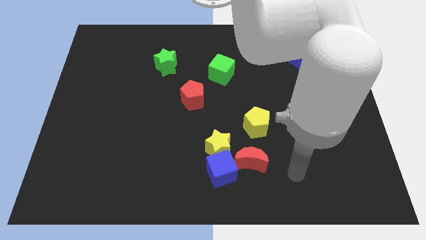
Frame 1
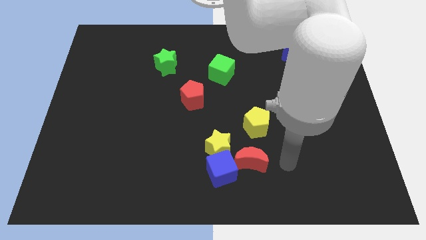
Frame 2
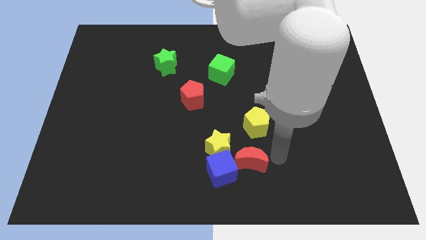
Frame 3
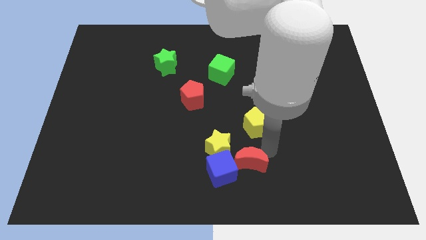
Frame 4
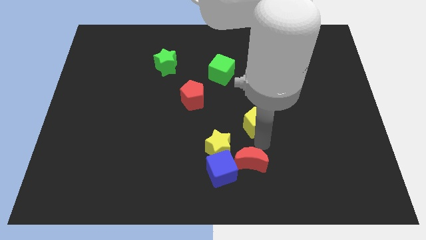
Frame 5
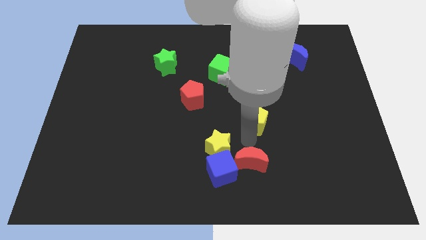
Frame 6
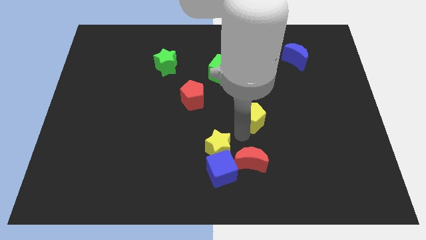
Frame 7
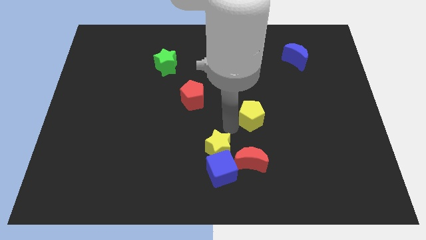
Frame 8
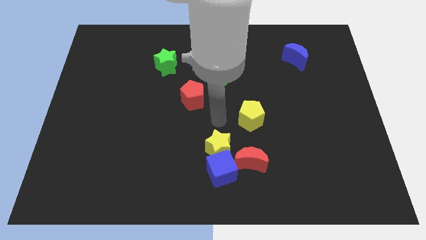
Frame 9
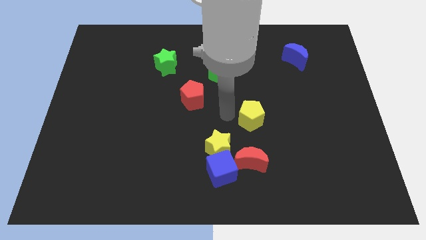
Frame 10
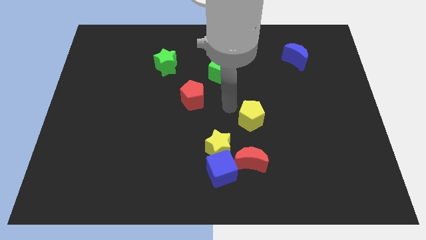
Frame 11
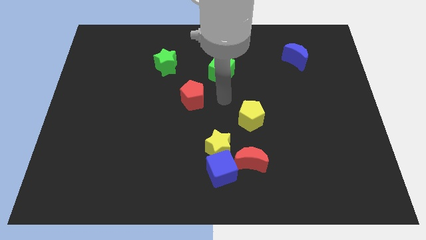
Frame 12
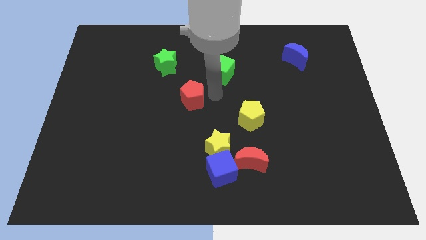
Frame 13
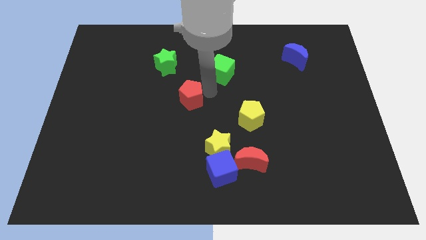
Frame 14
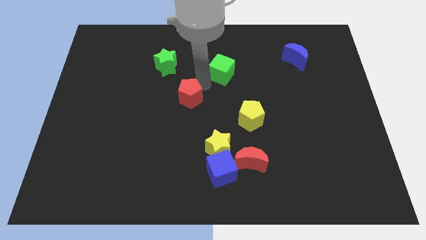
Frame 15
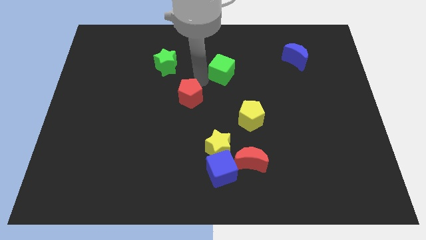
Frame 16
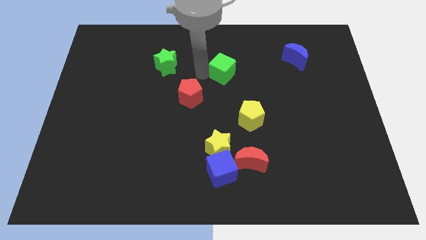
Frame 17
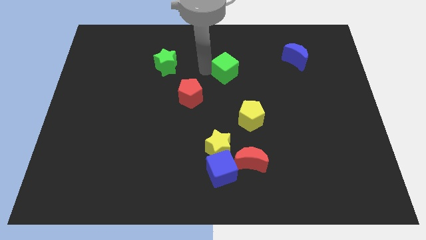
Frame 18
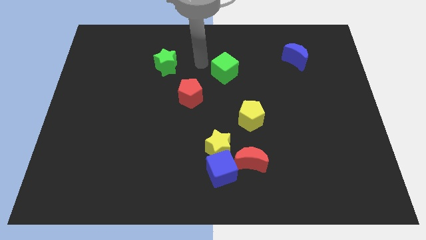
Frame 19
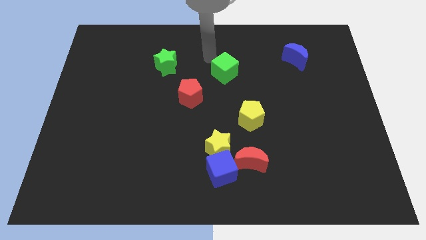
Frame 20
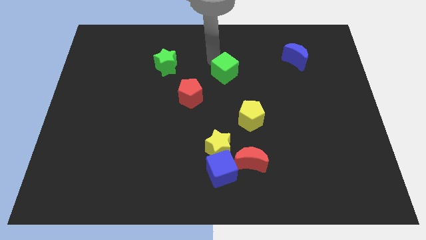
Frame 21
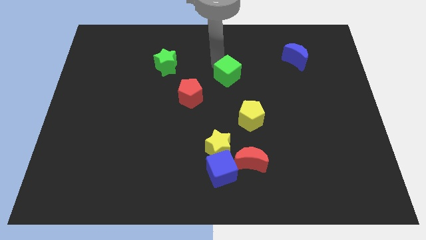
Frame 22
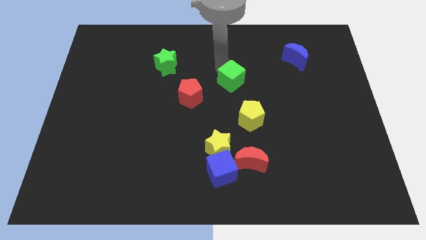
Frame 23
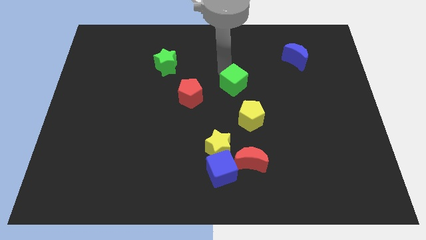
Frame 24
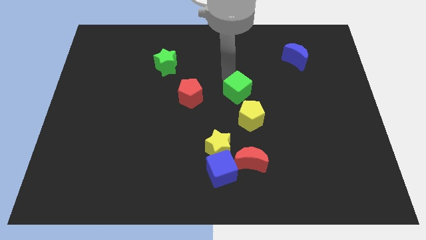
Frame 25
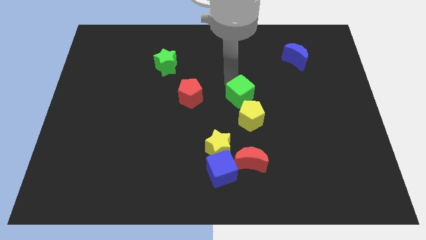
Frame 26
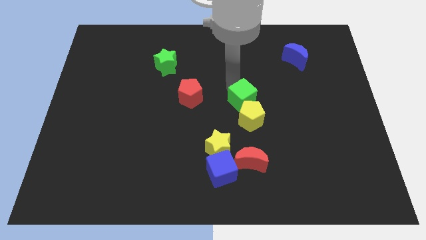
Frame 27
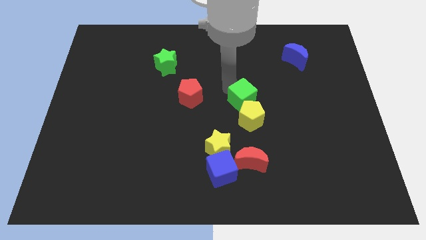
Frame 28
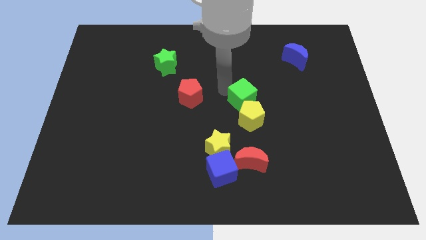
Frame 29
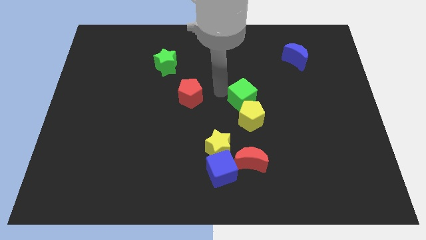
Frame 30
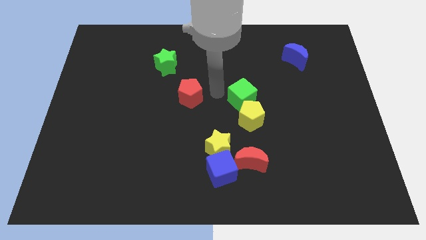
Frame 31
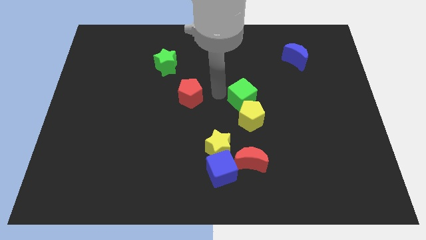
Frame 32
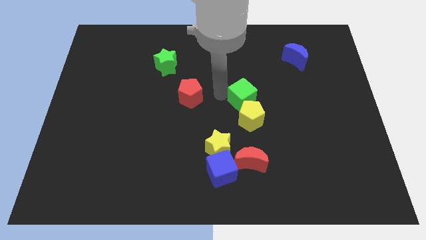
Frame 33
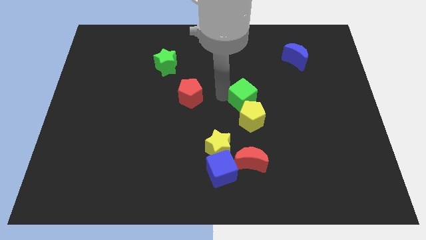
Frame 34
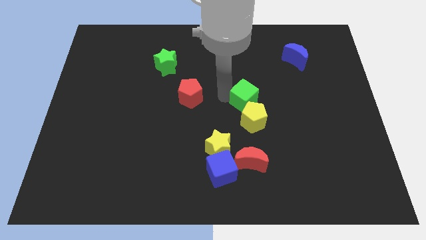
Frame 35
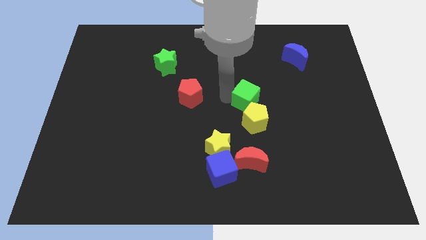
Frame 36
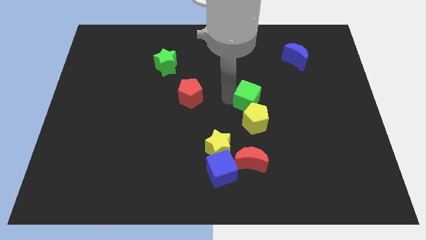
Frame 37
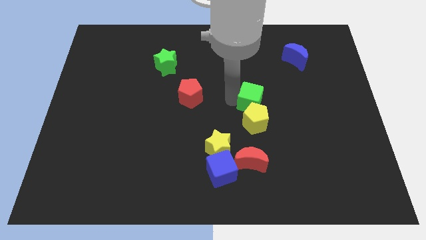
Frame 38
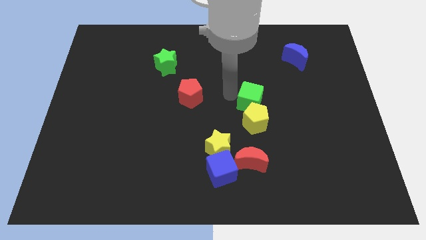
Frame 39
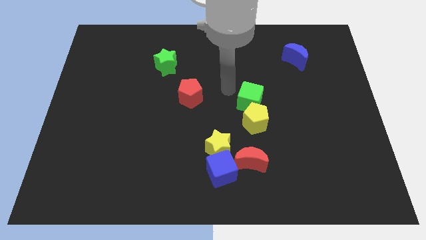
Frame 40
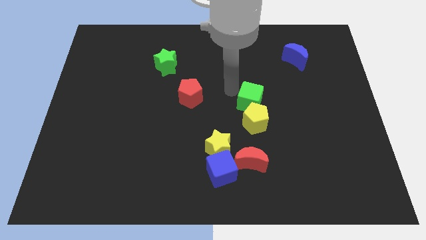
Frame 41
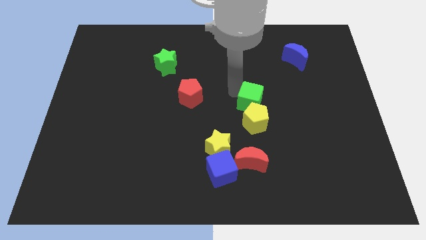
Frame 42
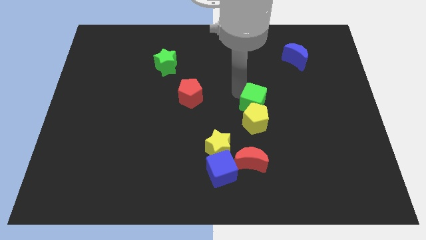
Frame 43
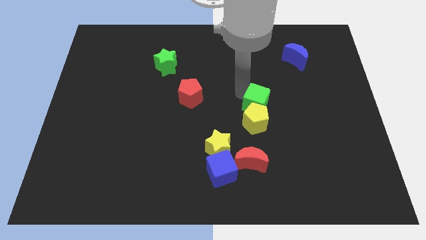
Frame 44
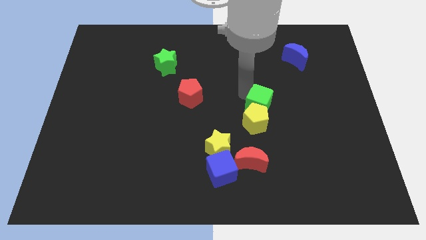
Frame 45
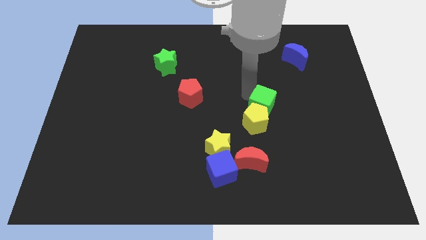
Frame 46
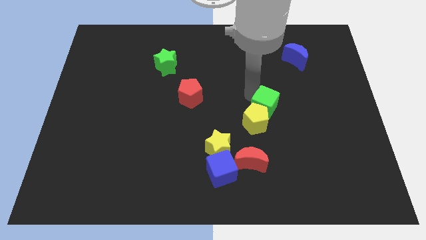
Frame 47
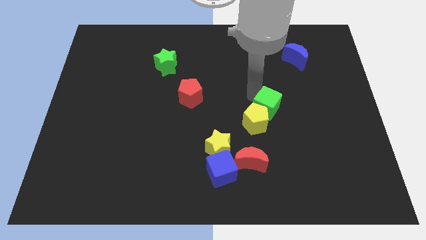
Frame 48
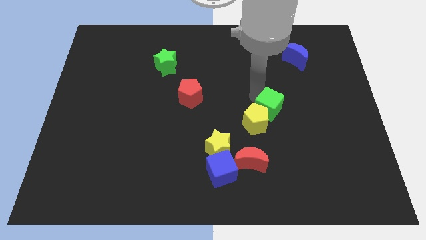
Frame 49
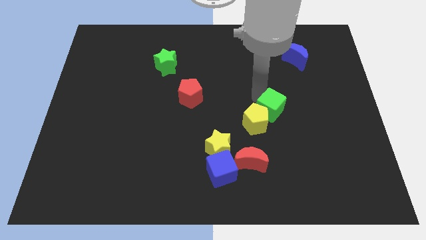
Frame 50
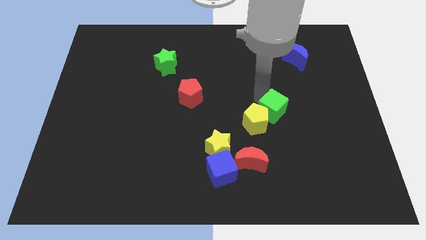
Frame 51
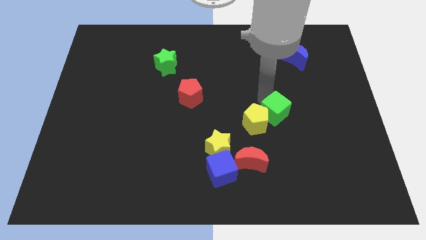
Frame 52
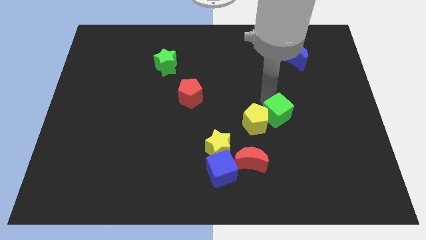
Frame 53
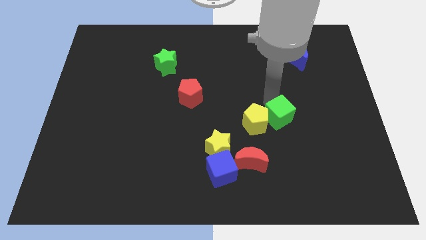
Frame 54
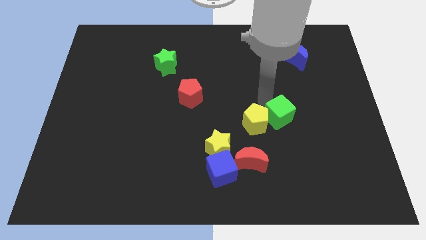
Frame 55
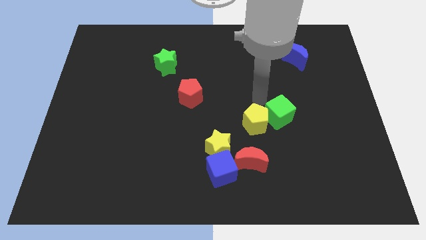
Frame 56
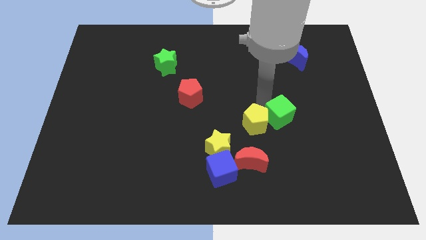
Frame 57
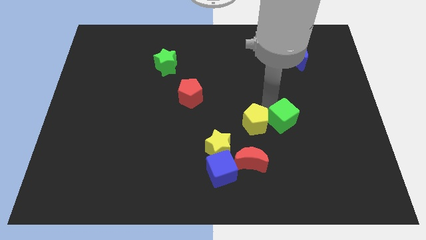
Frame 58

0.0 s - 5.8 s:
slide the green cube diagonally downwards and right

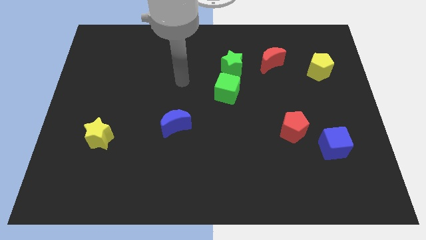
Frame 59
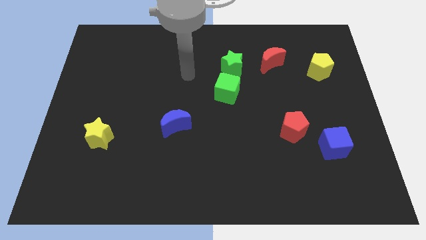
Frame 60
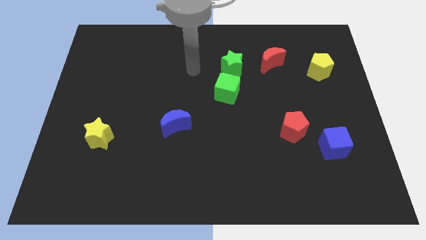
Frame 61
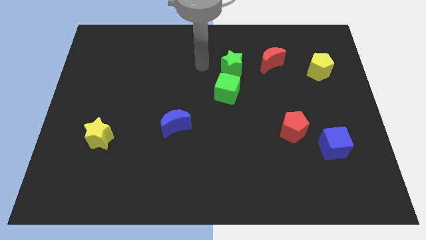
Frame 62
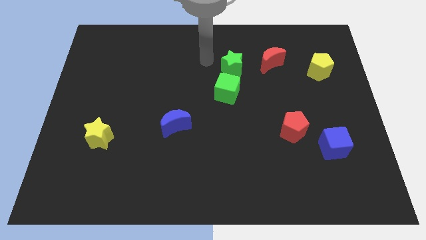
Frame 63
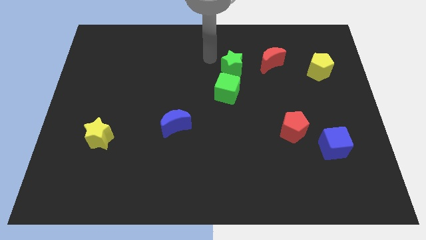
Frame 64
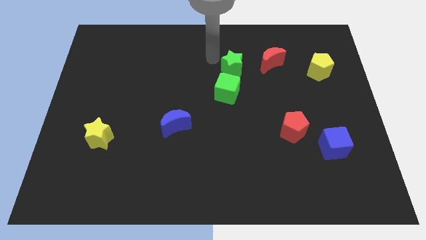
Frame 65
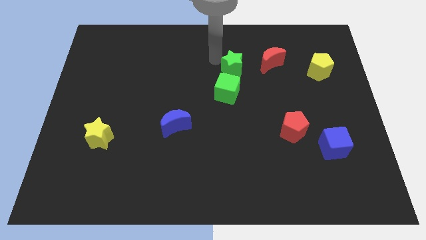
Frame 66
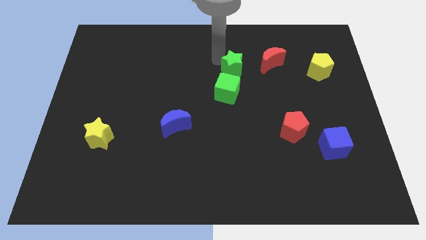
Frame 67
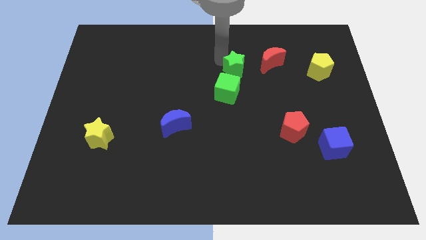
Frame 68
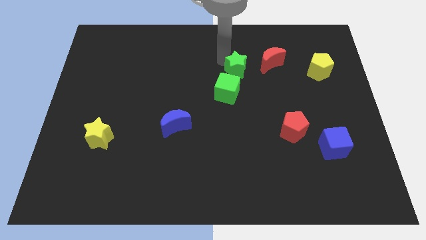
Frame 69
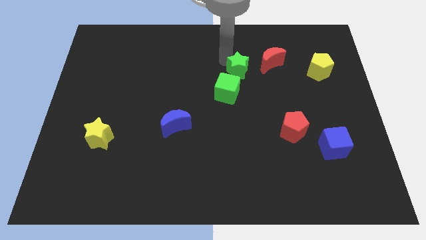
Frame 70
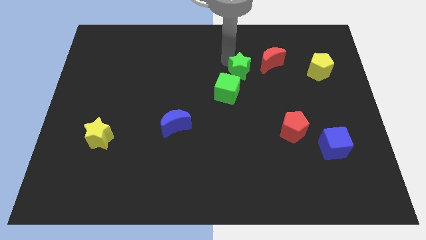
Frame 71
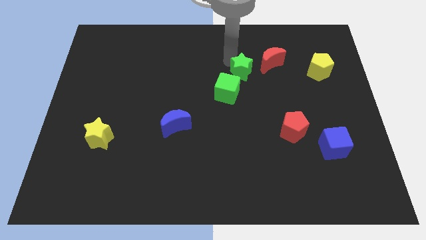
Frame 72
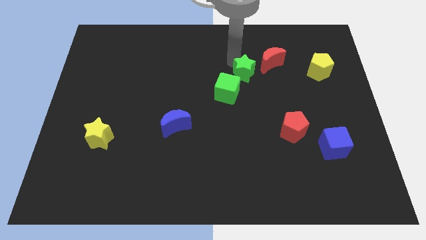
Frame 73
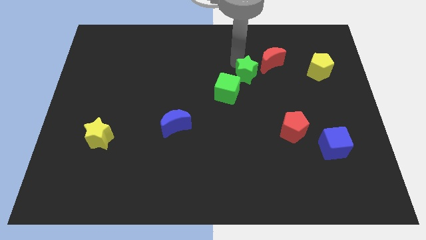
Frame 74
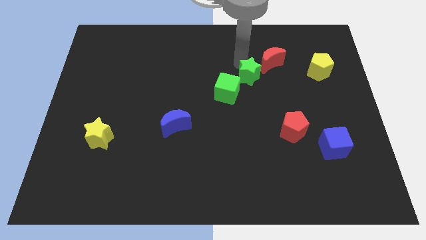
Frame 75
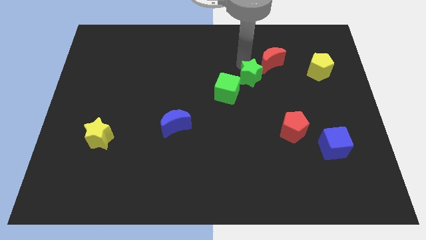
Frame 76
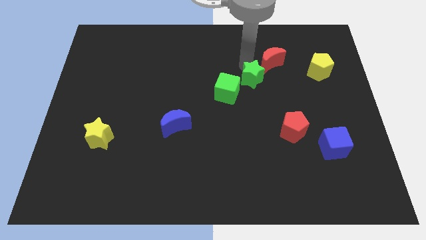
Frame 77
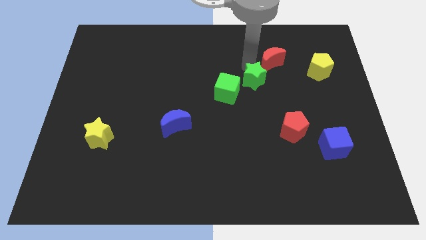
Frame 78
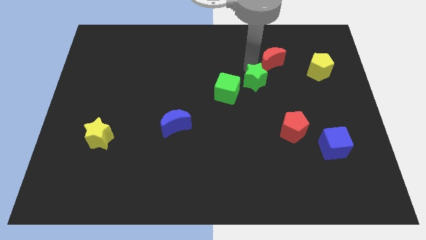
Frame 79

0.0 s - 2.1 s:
push the green star a bit down and to the right
